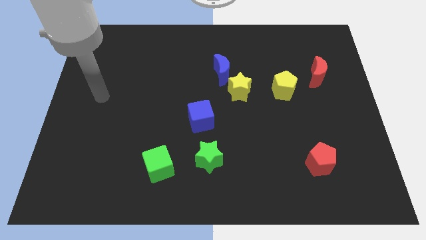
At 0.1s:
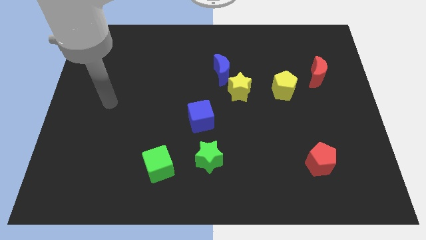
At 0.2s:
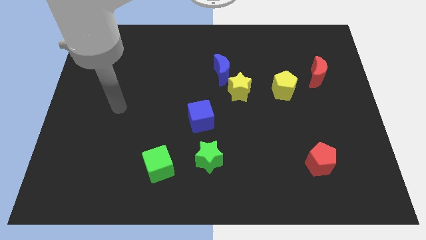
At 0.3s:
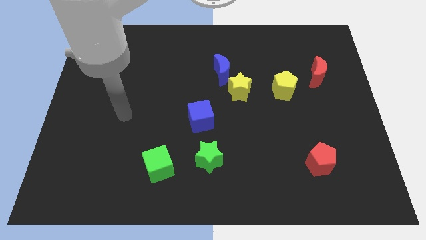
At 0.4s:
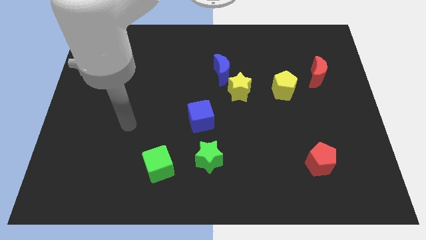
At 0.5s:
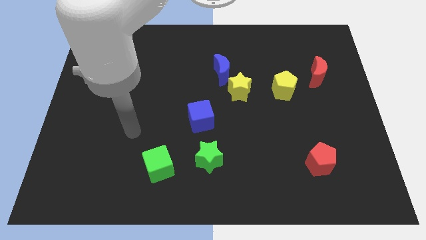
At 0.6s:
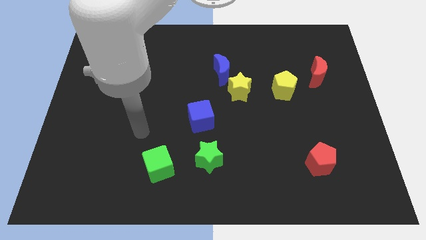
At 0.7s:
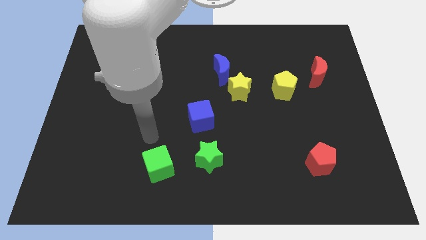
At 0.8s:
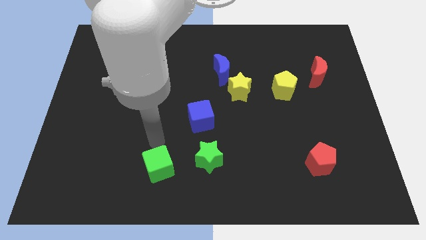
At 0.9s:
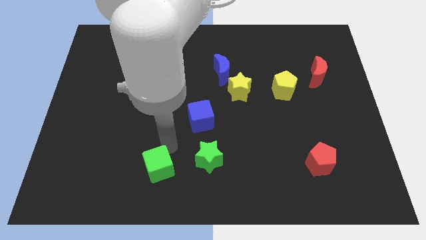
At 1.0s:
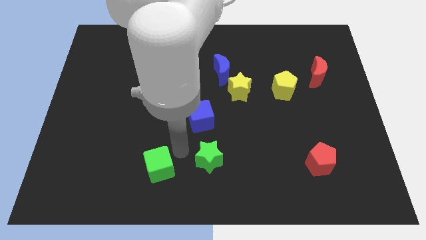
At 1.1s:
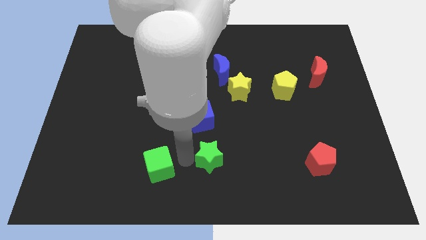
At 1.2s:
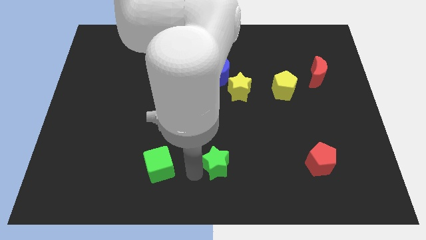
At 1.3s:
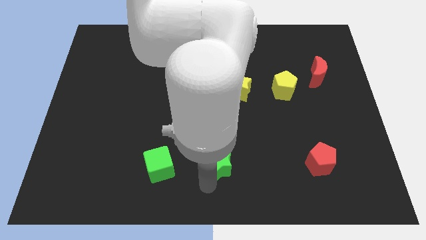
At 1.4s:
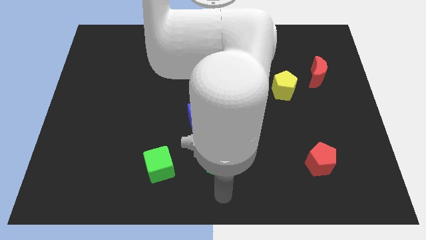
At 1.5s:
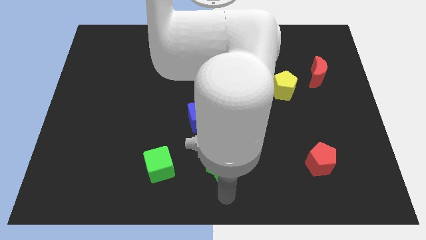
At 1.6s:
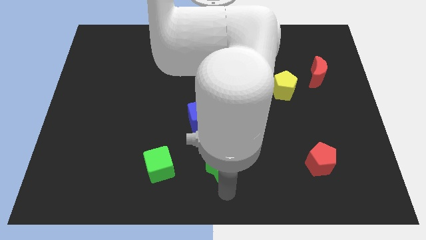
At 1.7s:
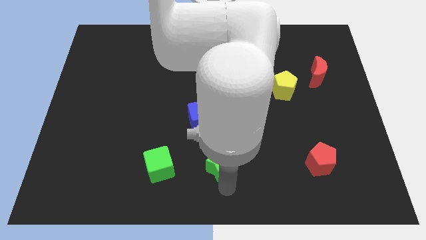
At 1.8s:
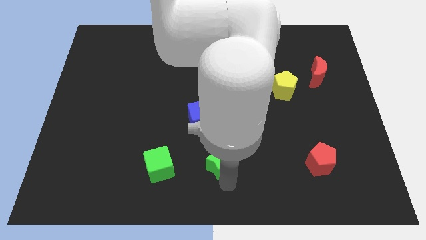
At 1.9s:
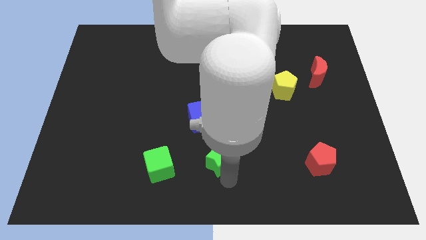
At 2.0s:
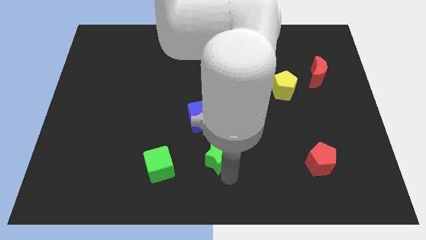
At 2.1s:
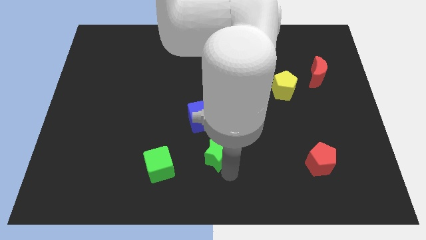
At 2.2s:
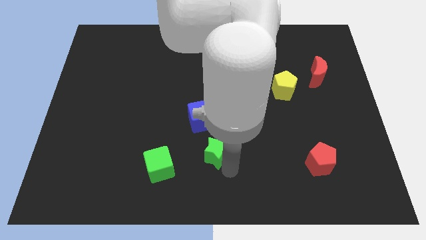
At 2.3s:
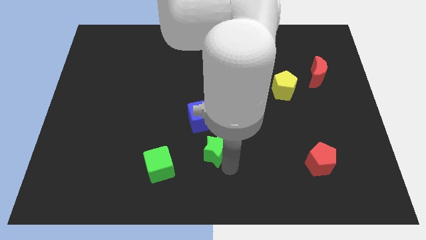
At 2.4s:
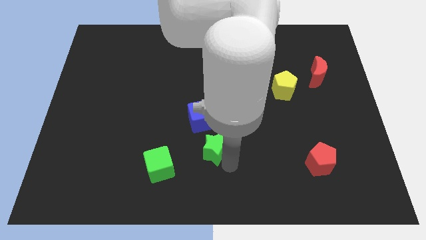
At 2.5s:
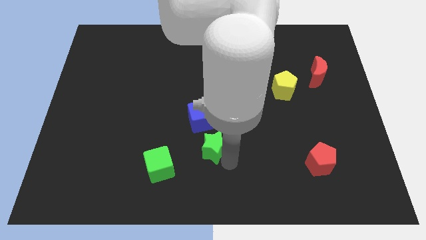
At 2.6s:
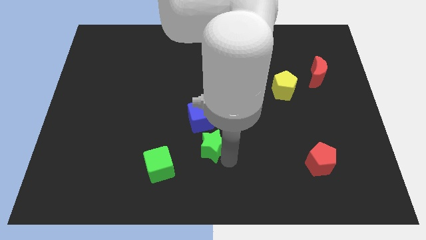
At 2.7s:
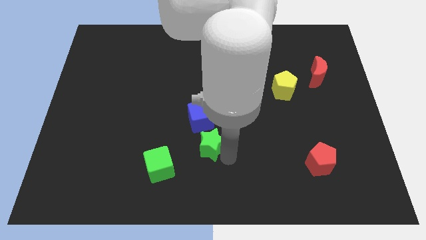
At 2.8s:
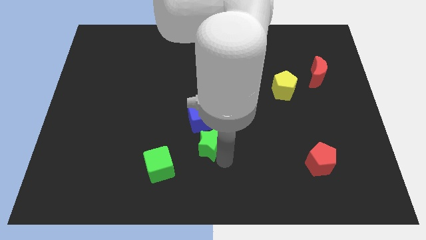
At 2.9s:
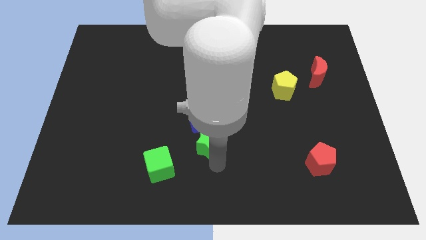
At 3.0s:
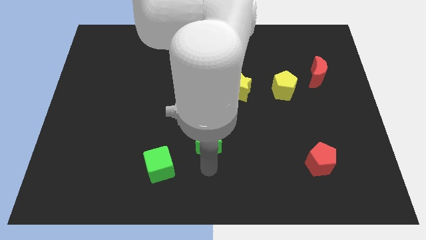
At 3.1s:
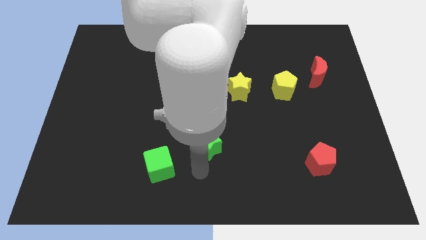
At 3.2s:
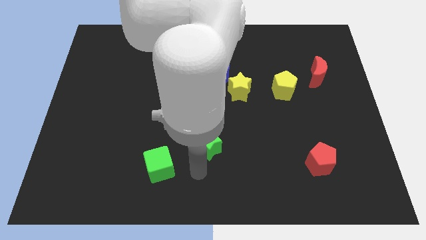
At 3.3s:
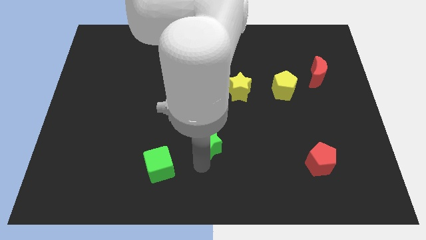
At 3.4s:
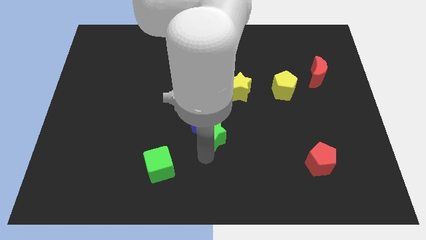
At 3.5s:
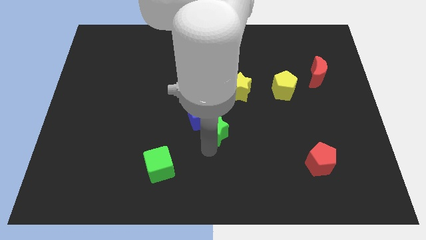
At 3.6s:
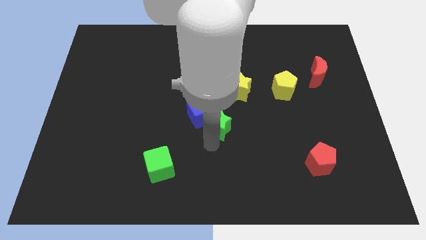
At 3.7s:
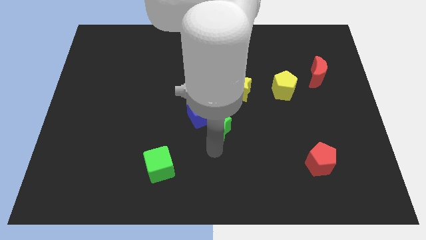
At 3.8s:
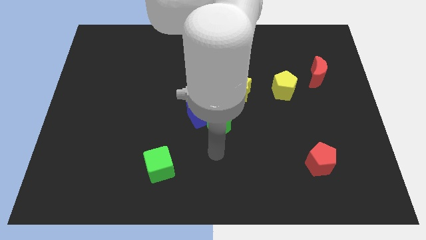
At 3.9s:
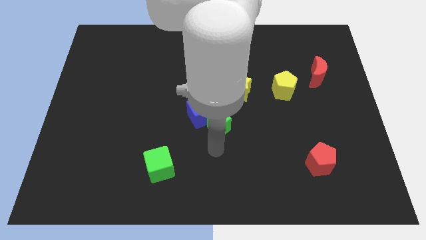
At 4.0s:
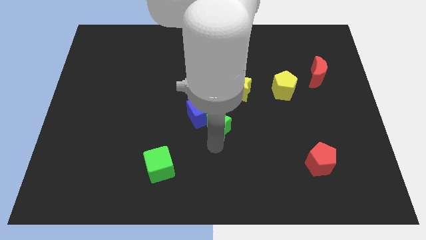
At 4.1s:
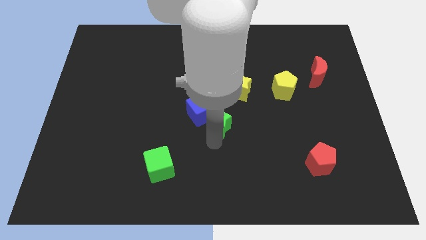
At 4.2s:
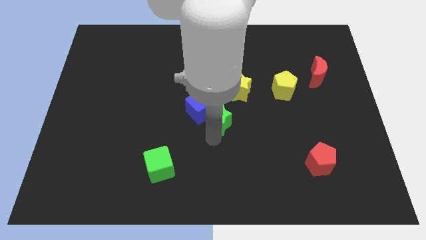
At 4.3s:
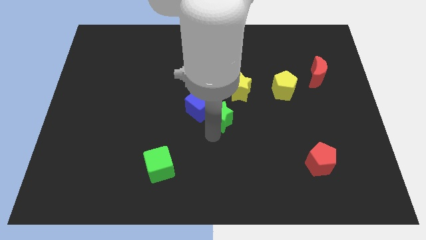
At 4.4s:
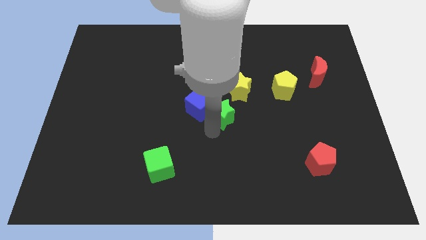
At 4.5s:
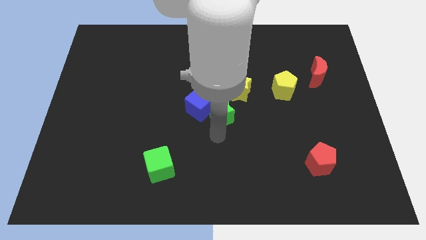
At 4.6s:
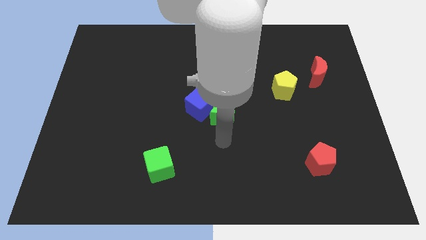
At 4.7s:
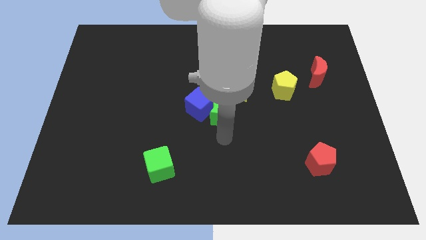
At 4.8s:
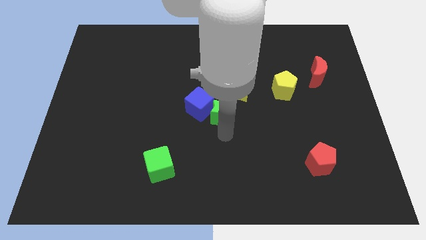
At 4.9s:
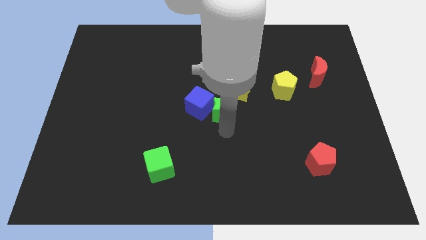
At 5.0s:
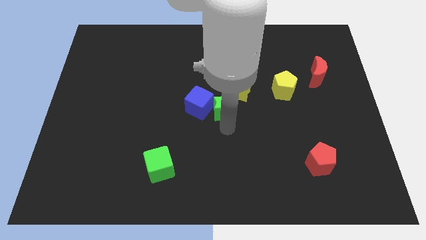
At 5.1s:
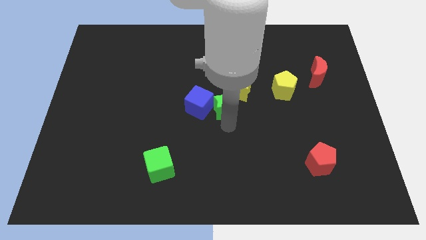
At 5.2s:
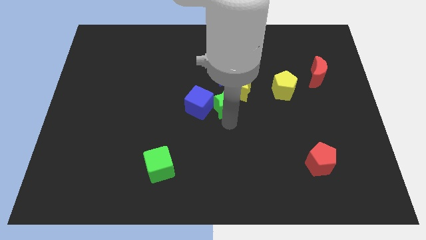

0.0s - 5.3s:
move the green star to the top right of the blue cube
